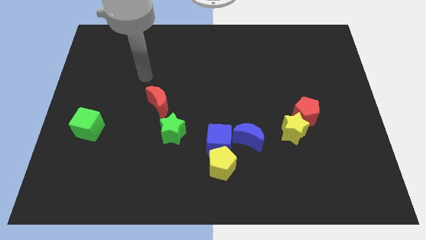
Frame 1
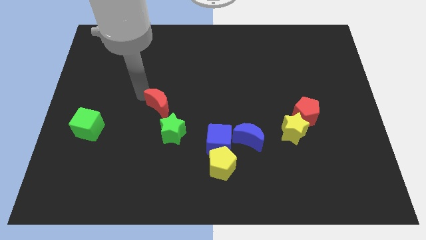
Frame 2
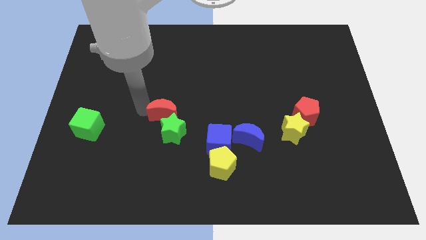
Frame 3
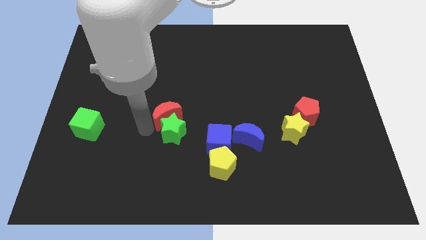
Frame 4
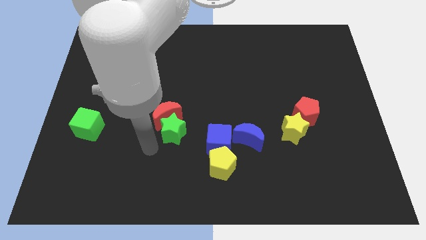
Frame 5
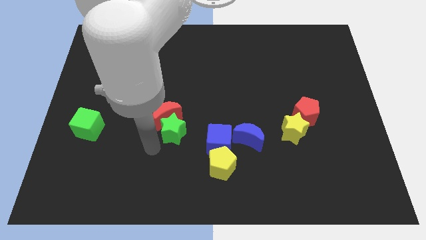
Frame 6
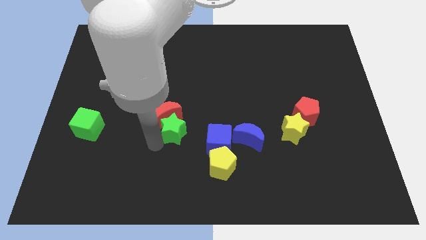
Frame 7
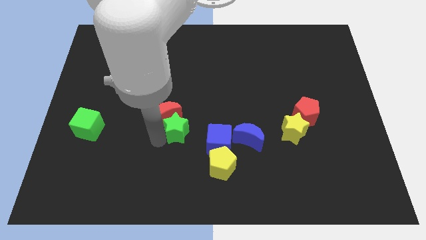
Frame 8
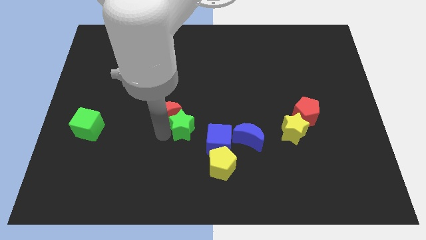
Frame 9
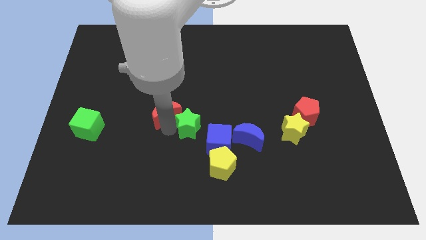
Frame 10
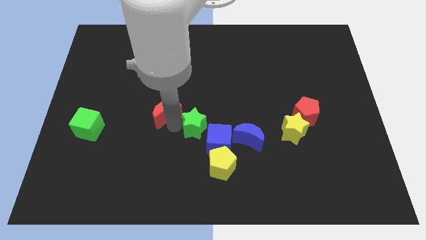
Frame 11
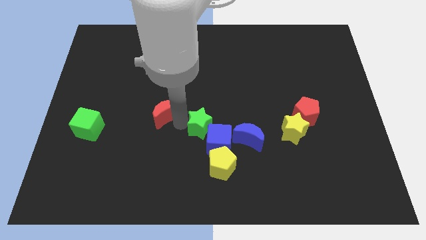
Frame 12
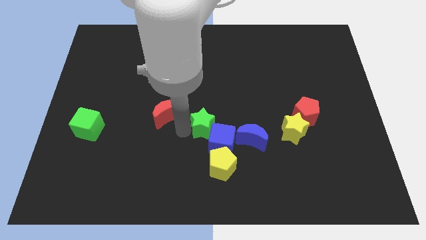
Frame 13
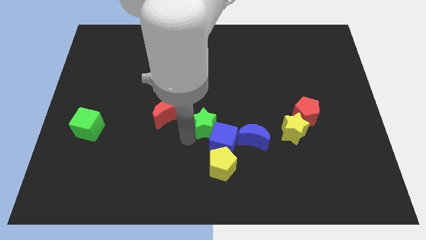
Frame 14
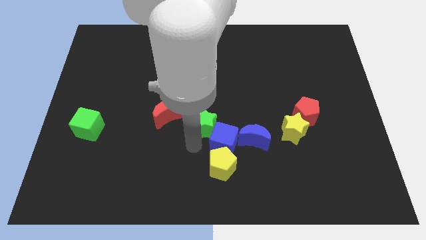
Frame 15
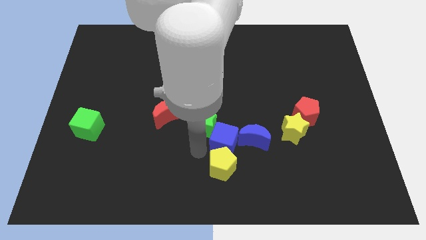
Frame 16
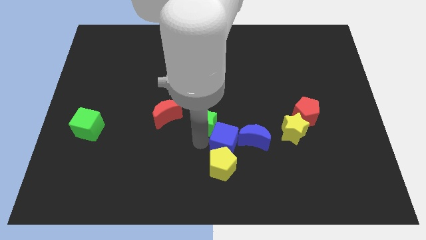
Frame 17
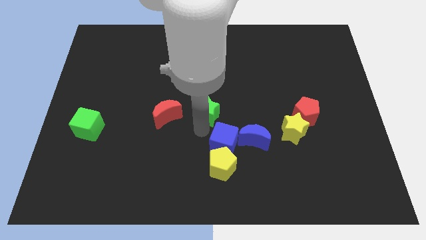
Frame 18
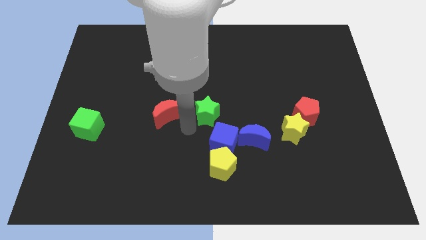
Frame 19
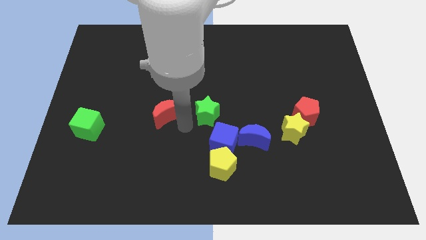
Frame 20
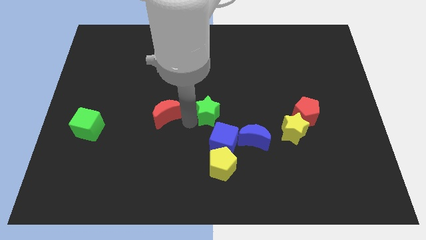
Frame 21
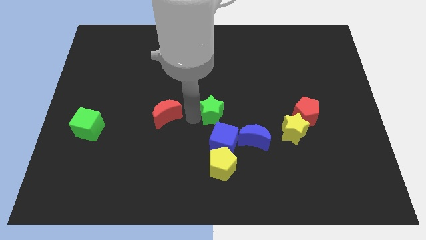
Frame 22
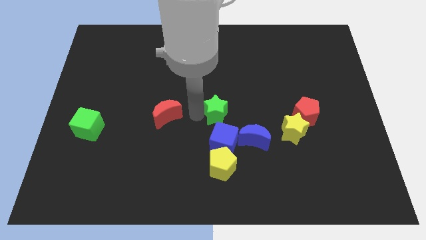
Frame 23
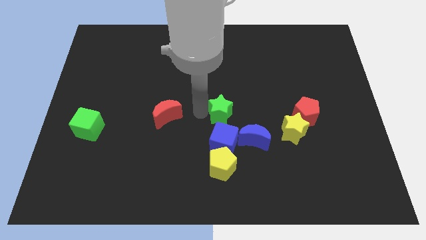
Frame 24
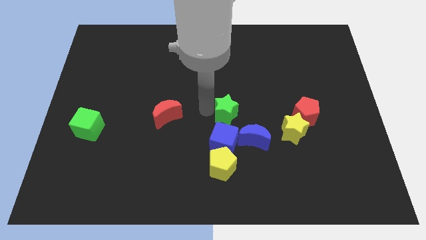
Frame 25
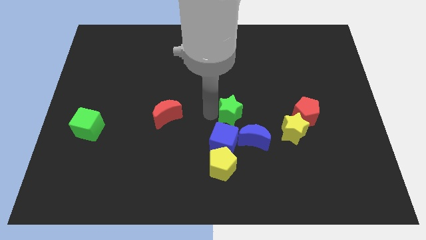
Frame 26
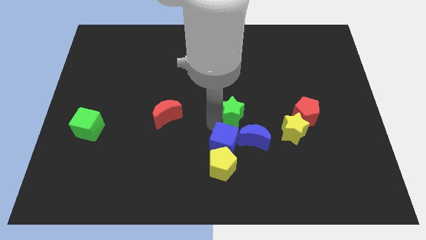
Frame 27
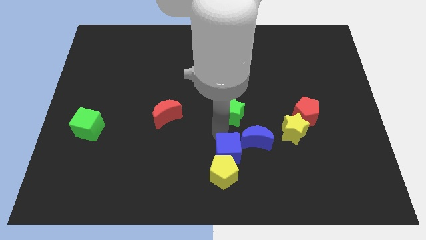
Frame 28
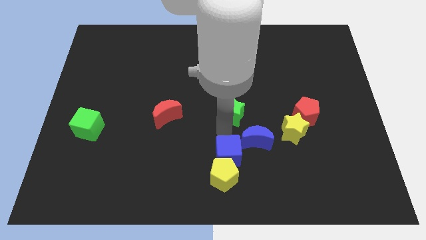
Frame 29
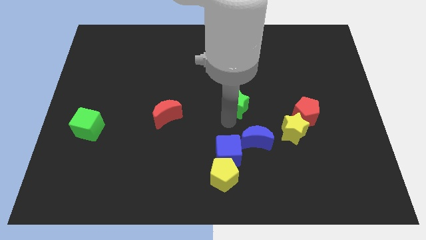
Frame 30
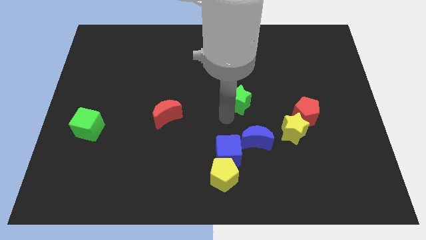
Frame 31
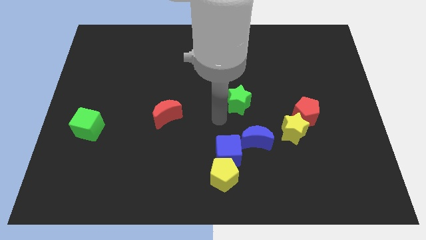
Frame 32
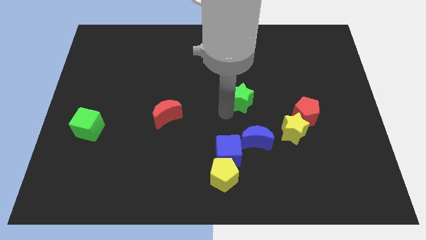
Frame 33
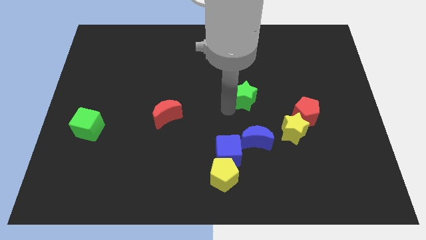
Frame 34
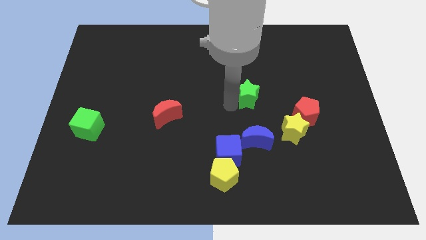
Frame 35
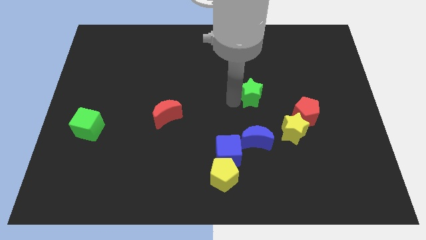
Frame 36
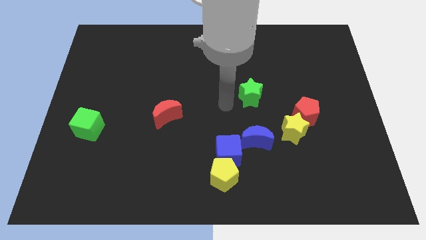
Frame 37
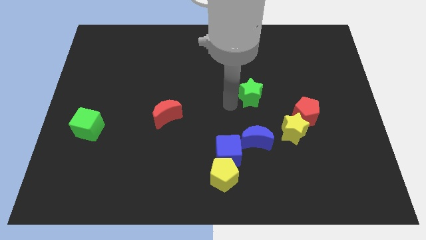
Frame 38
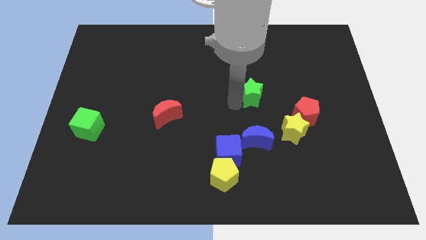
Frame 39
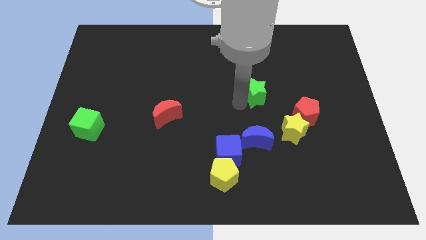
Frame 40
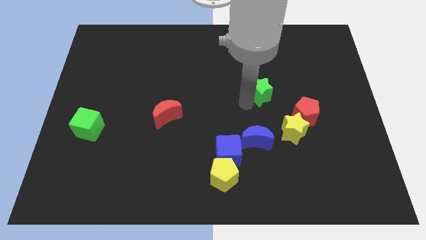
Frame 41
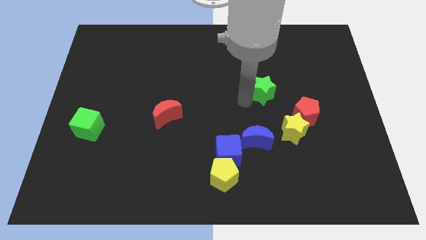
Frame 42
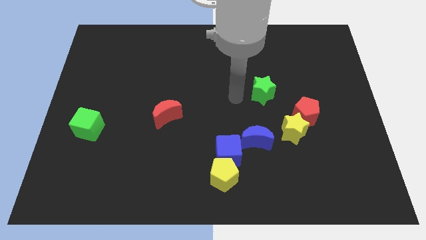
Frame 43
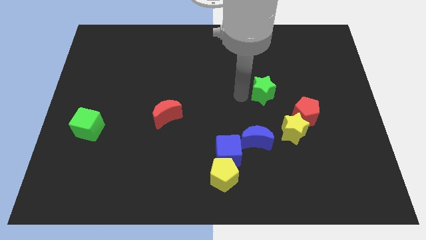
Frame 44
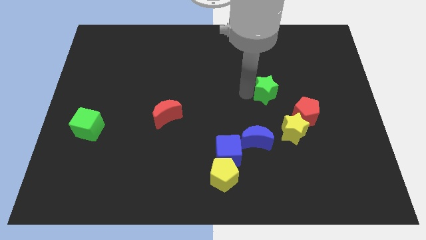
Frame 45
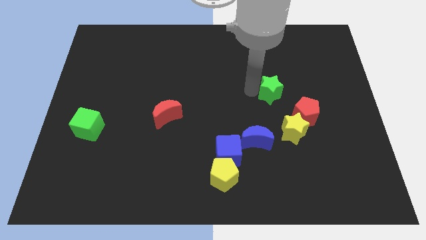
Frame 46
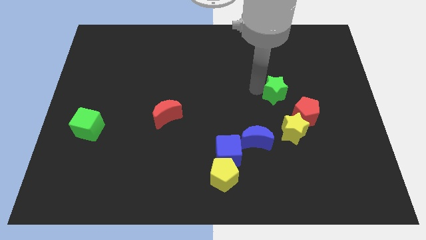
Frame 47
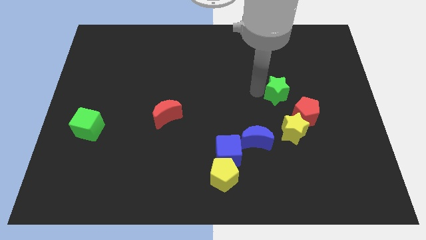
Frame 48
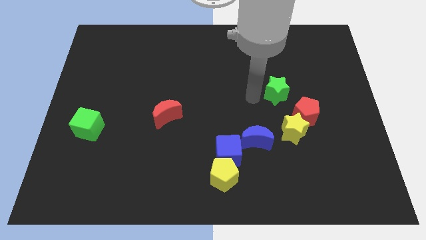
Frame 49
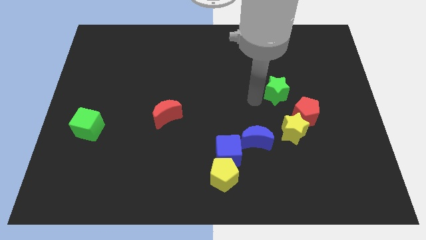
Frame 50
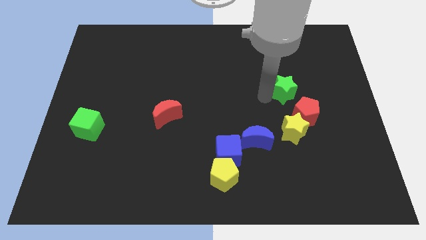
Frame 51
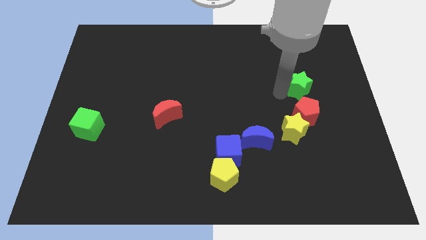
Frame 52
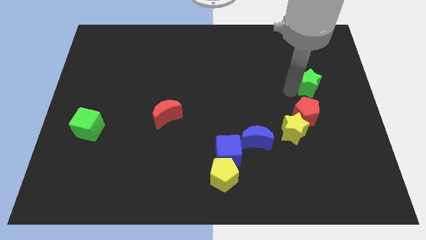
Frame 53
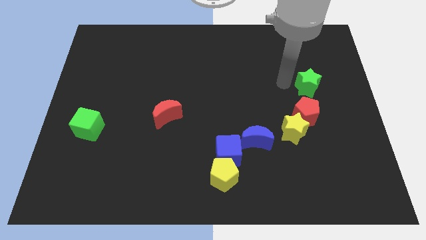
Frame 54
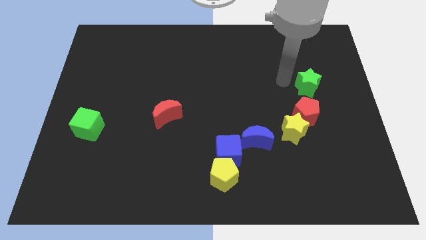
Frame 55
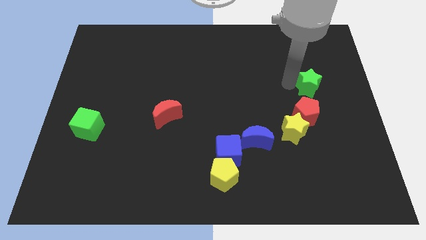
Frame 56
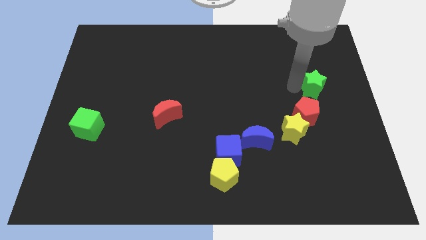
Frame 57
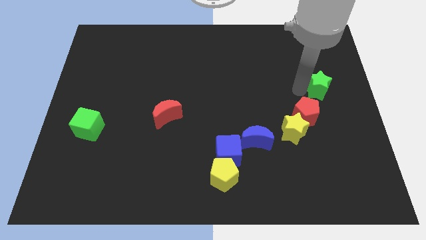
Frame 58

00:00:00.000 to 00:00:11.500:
push the green star to the center right

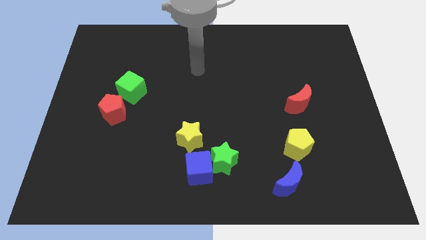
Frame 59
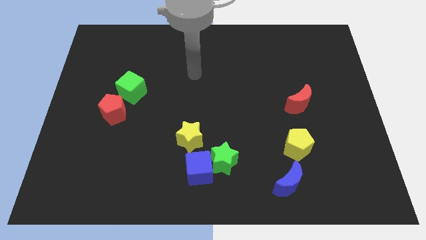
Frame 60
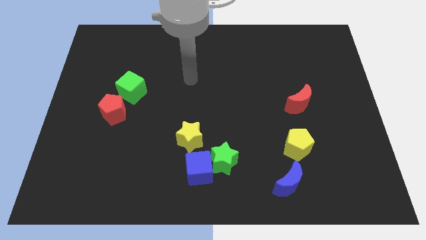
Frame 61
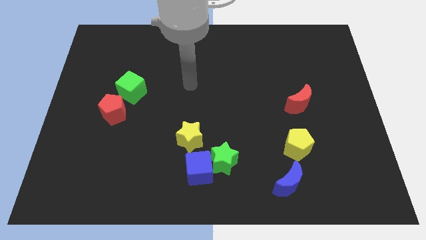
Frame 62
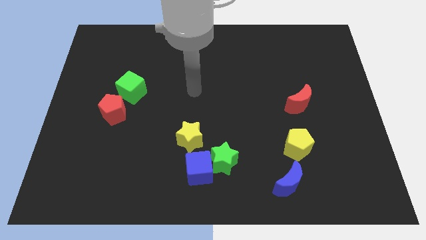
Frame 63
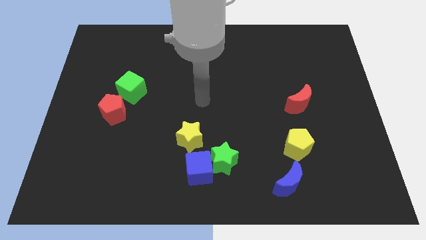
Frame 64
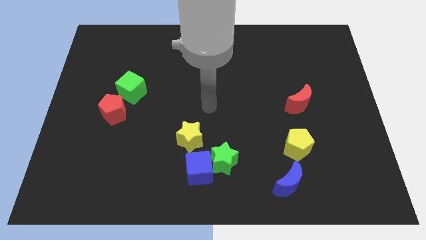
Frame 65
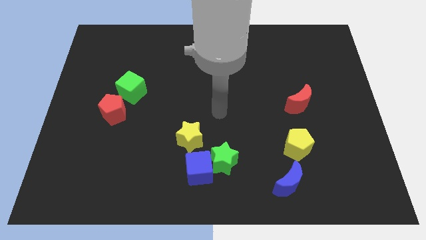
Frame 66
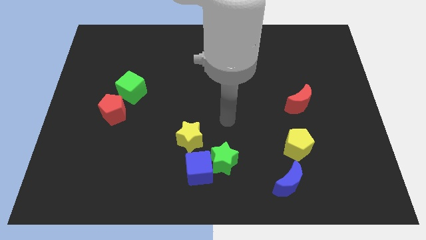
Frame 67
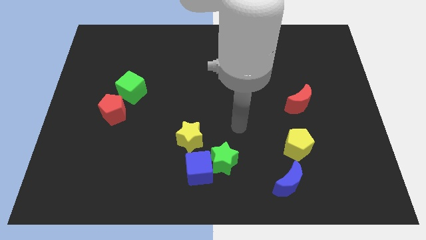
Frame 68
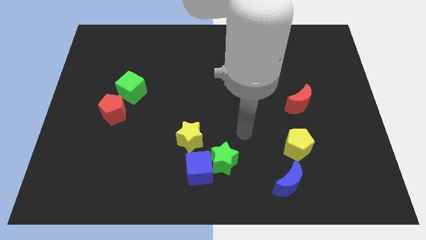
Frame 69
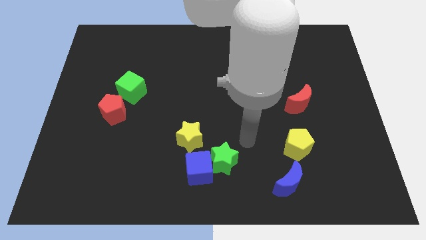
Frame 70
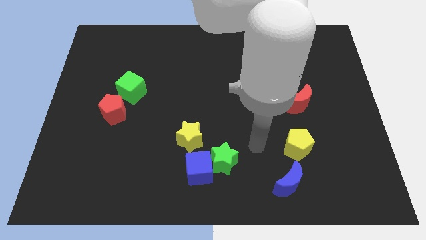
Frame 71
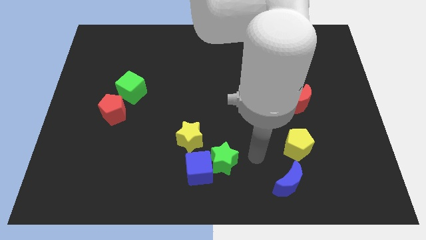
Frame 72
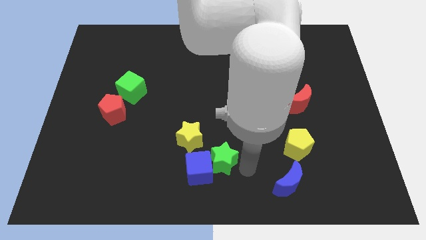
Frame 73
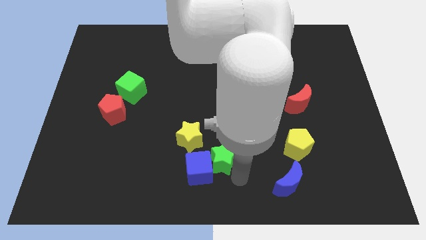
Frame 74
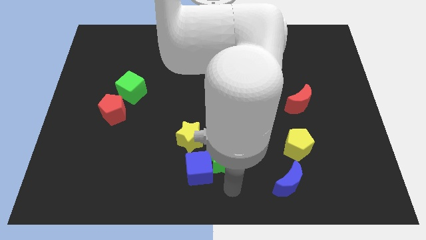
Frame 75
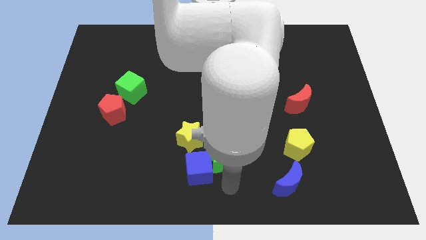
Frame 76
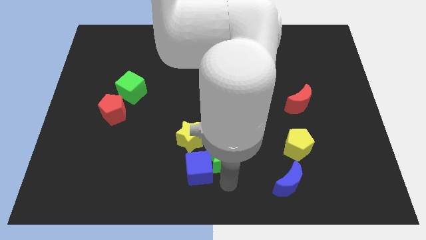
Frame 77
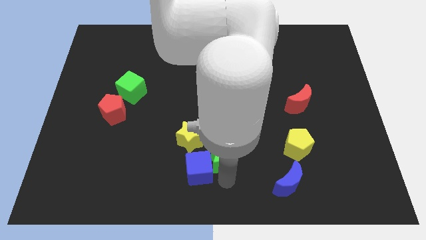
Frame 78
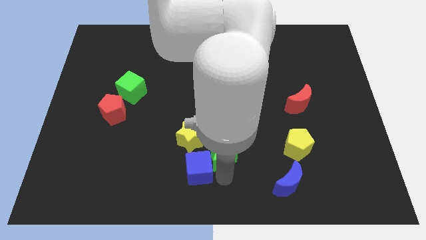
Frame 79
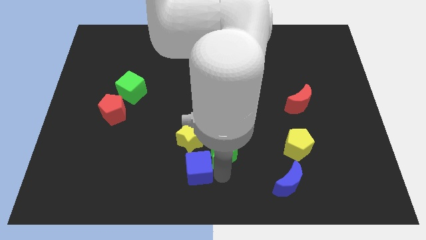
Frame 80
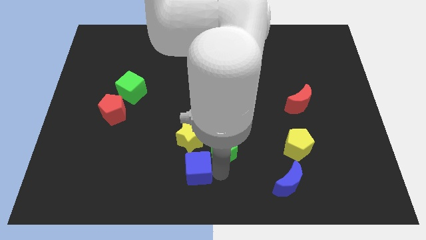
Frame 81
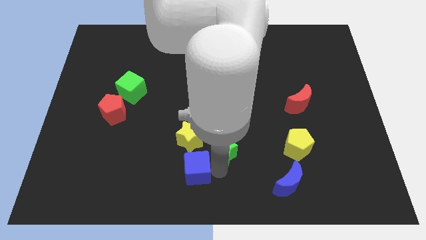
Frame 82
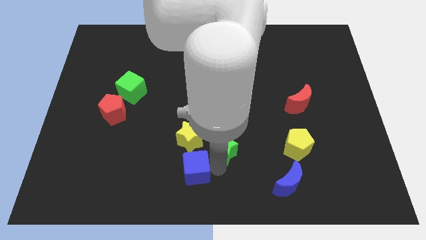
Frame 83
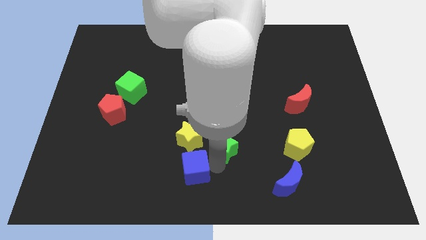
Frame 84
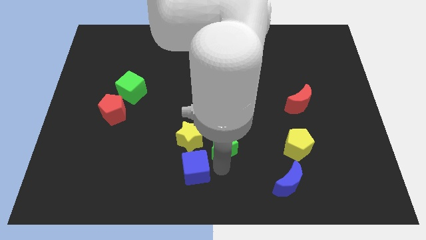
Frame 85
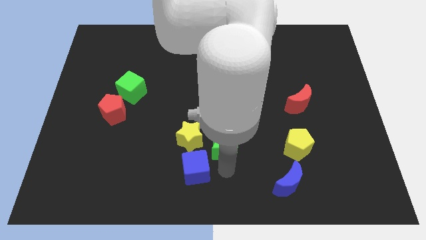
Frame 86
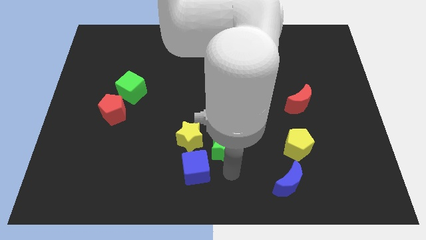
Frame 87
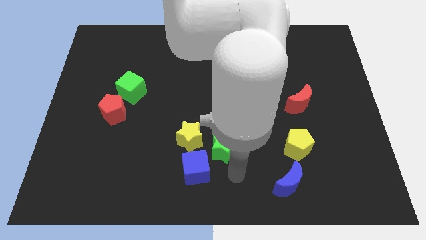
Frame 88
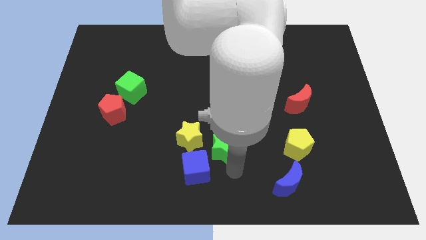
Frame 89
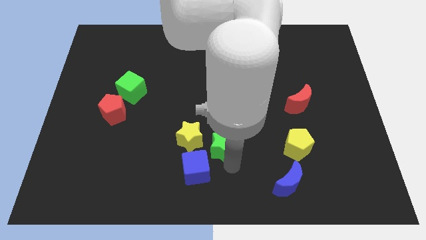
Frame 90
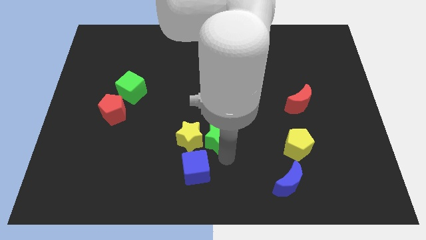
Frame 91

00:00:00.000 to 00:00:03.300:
put the green star to the middle
